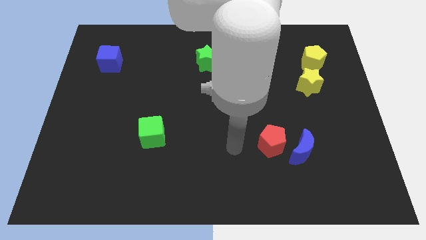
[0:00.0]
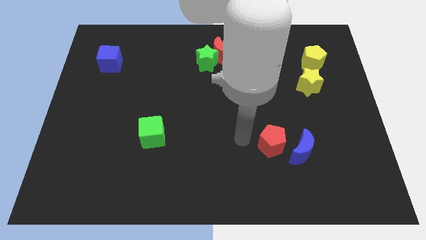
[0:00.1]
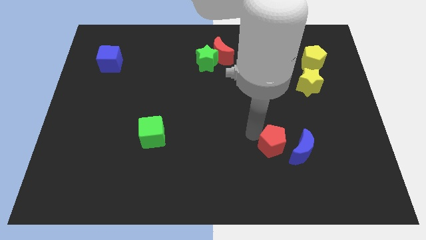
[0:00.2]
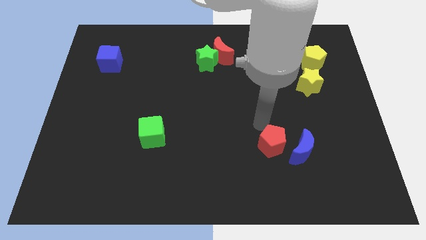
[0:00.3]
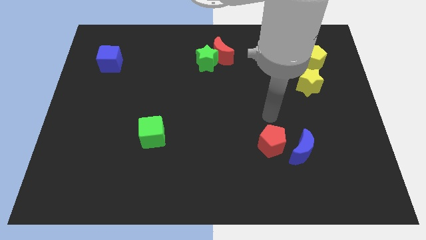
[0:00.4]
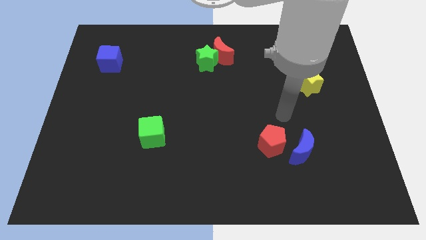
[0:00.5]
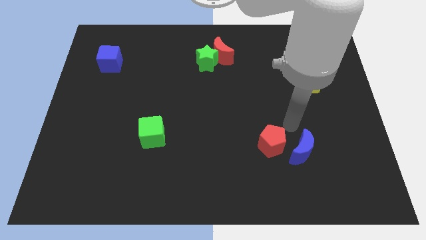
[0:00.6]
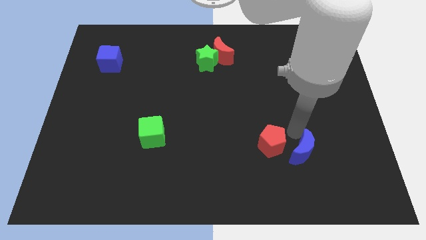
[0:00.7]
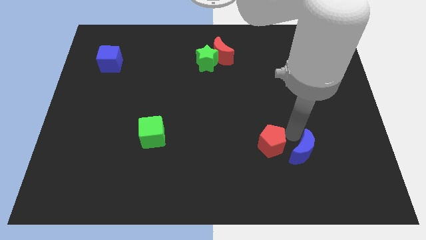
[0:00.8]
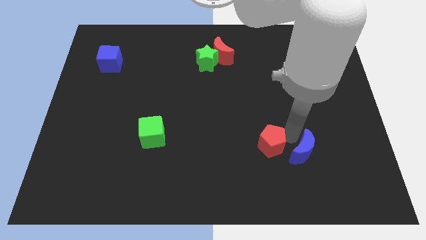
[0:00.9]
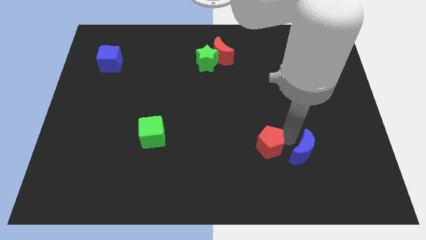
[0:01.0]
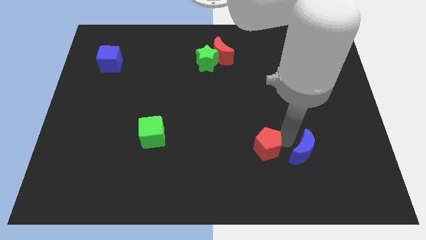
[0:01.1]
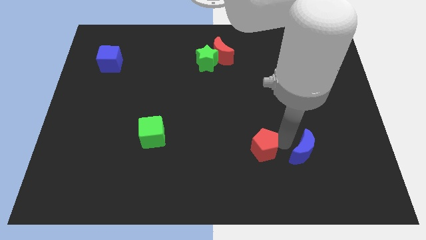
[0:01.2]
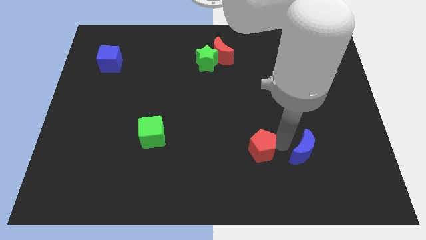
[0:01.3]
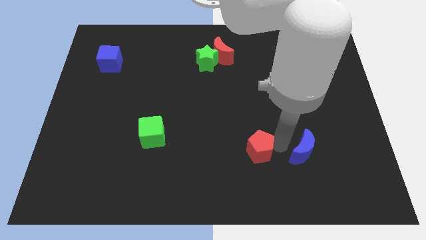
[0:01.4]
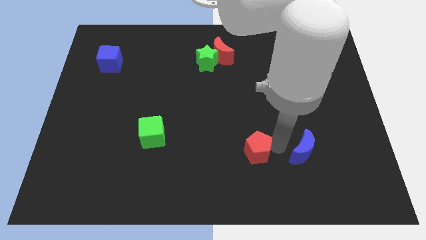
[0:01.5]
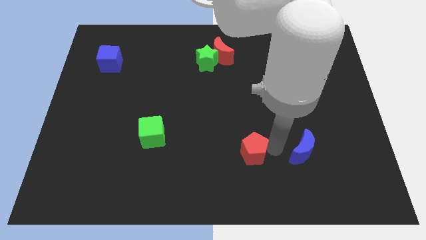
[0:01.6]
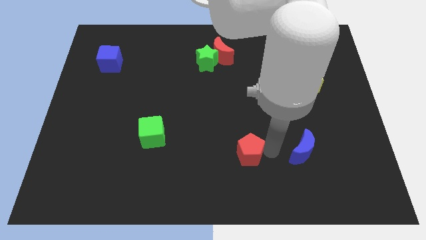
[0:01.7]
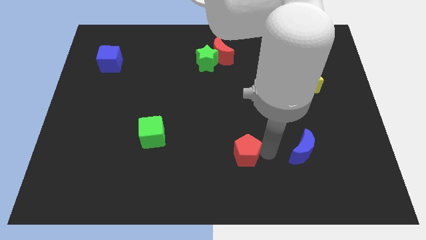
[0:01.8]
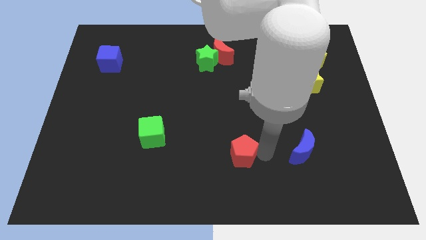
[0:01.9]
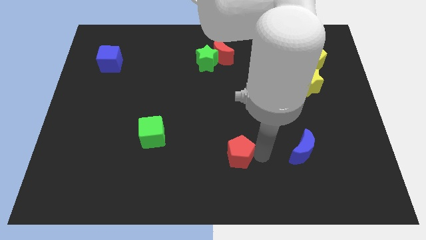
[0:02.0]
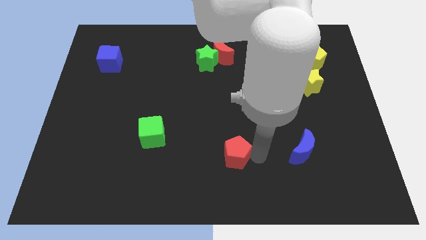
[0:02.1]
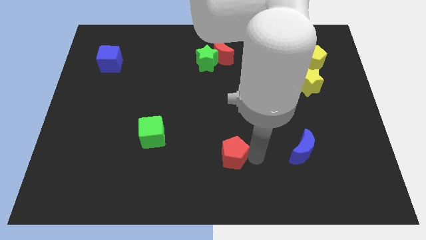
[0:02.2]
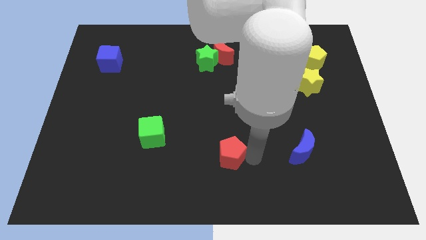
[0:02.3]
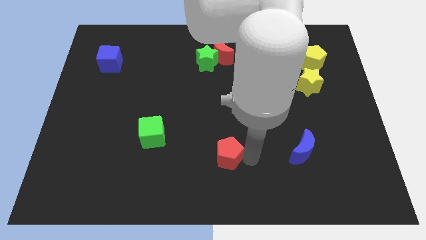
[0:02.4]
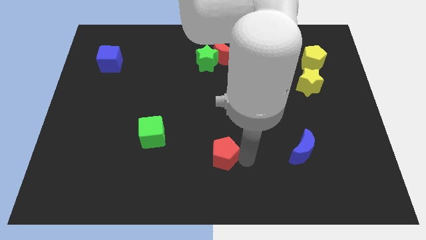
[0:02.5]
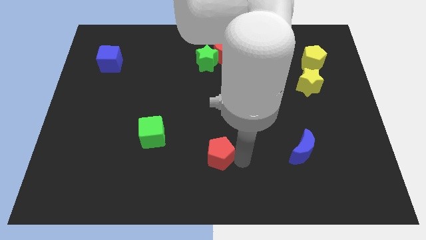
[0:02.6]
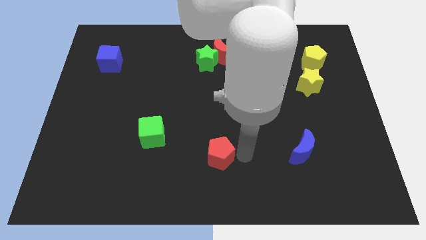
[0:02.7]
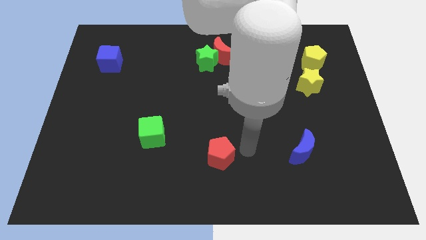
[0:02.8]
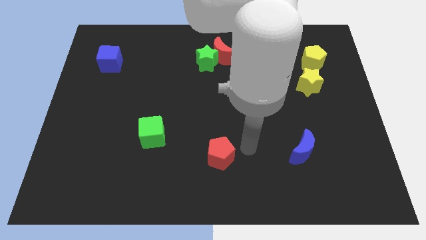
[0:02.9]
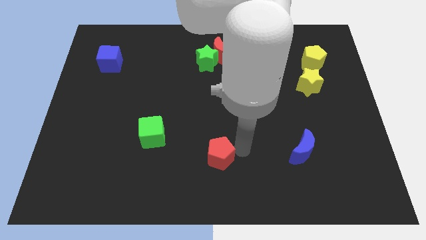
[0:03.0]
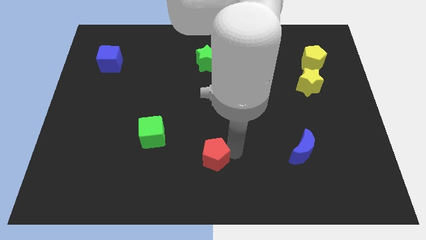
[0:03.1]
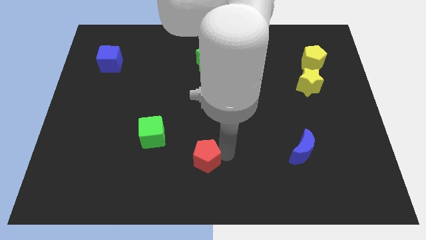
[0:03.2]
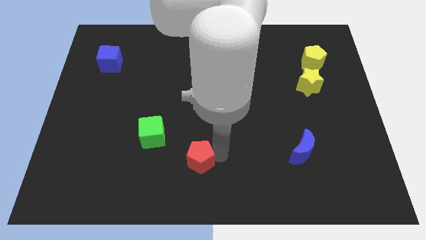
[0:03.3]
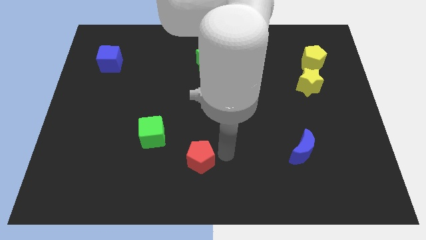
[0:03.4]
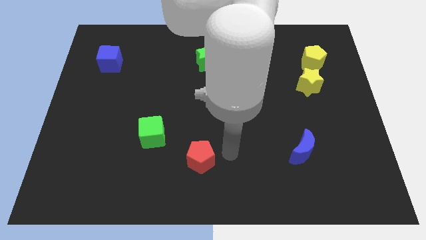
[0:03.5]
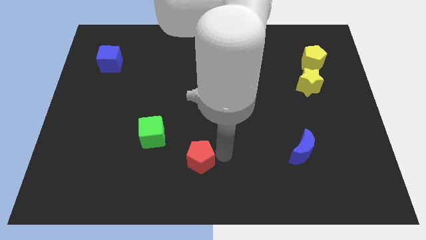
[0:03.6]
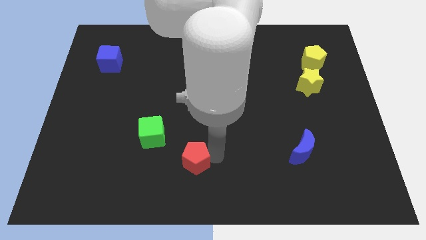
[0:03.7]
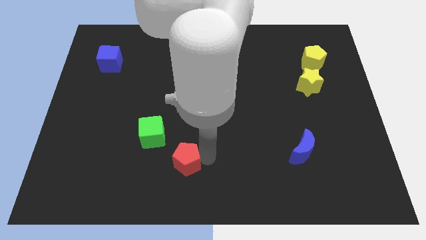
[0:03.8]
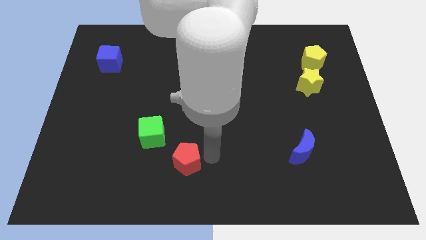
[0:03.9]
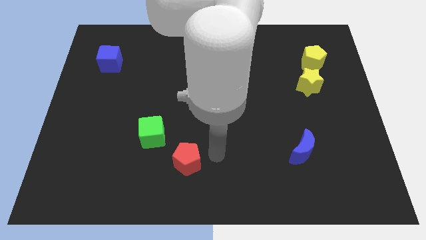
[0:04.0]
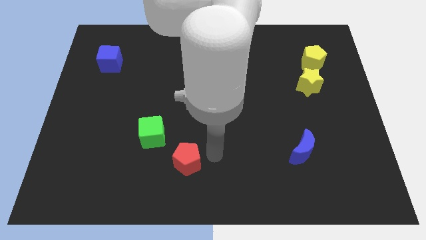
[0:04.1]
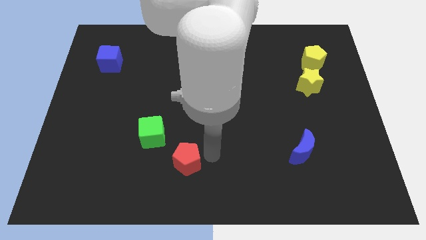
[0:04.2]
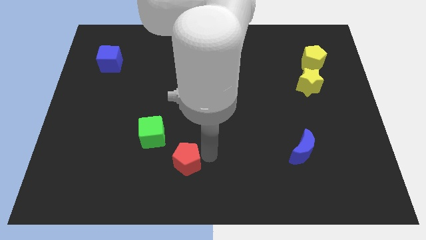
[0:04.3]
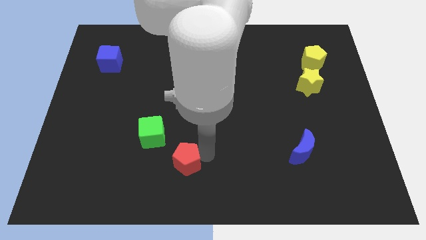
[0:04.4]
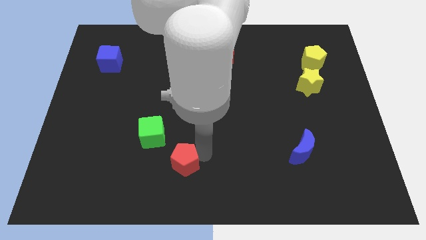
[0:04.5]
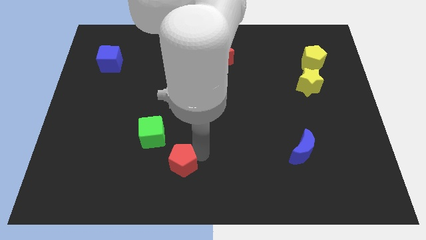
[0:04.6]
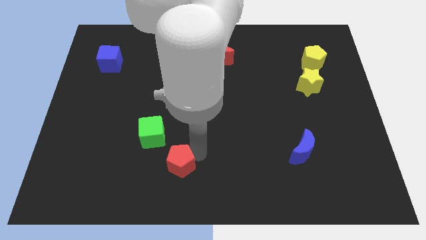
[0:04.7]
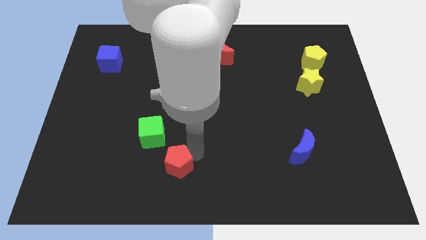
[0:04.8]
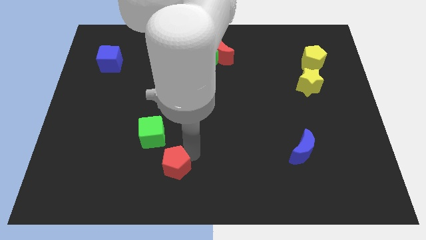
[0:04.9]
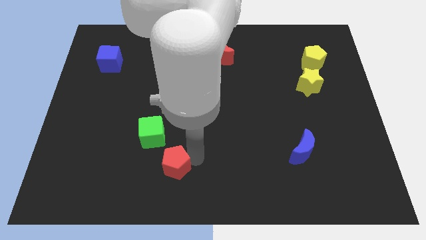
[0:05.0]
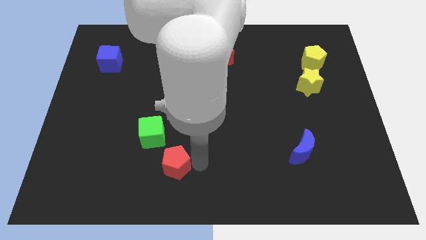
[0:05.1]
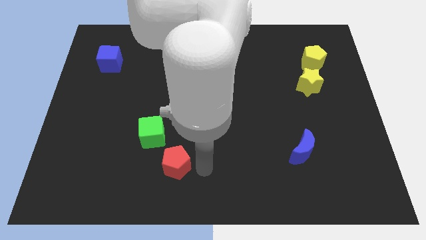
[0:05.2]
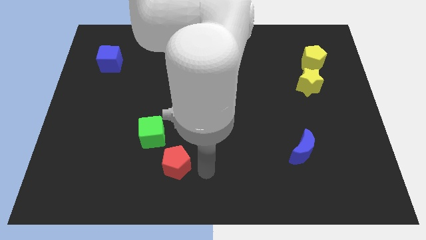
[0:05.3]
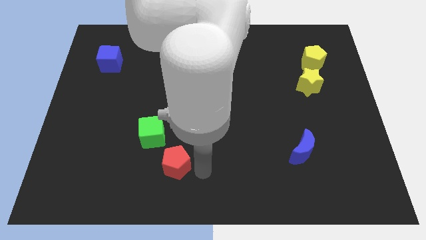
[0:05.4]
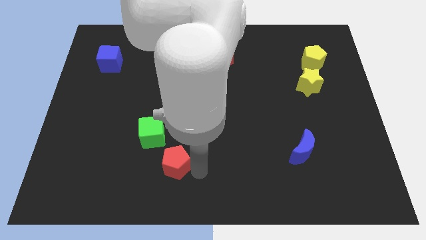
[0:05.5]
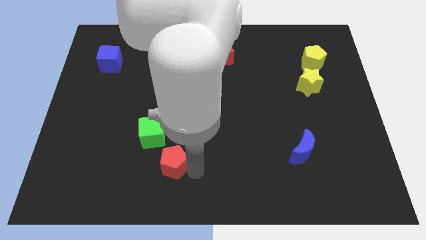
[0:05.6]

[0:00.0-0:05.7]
move the red pentagon left

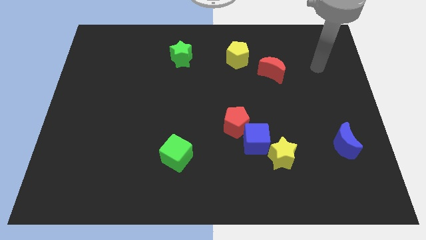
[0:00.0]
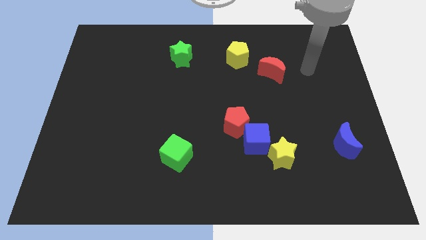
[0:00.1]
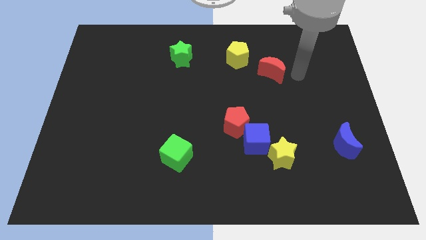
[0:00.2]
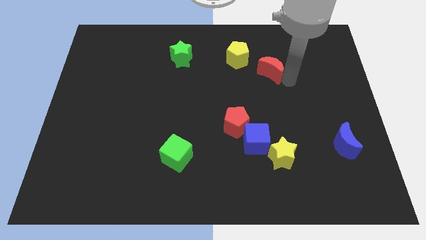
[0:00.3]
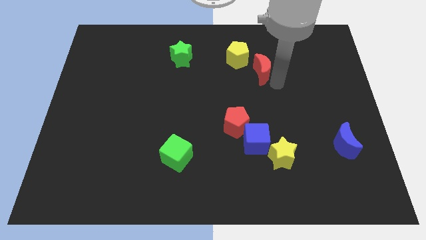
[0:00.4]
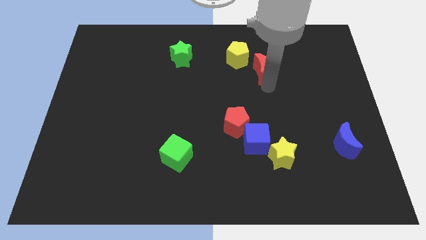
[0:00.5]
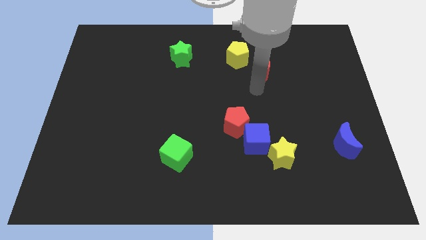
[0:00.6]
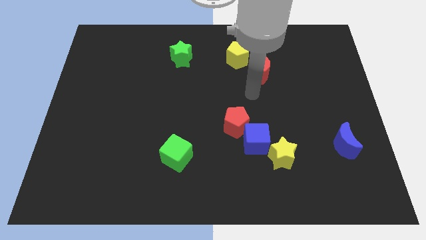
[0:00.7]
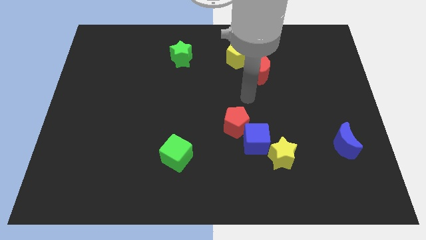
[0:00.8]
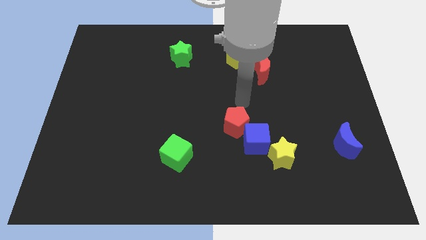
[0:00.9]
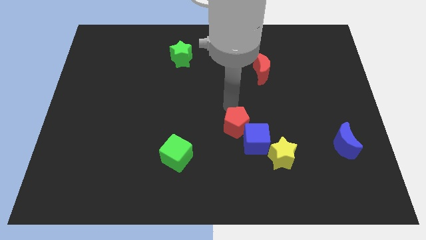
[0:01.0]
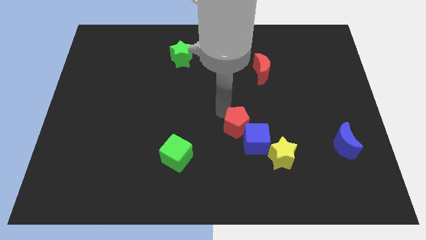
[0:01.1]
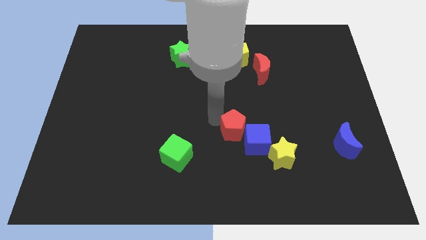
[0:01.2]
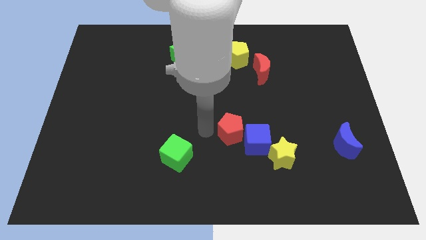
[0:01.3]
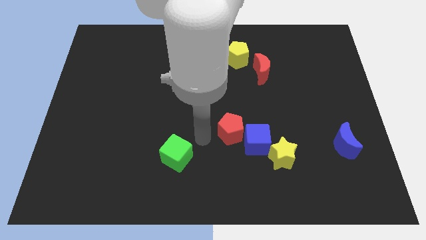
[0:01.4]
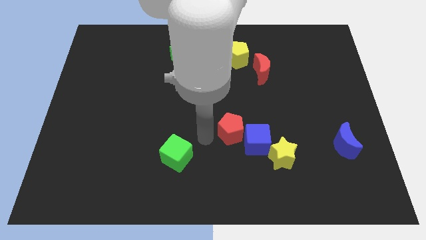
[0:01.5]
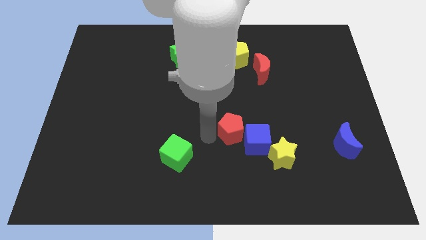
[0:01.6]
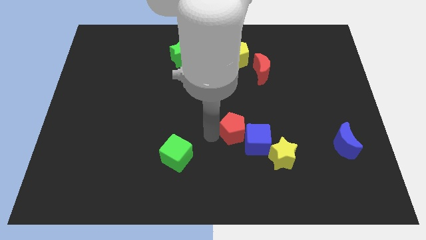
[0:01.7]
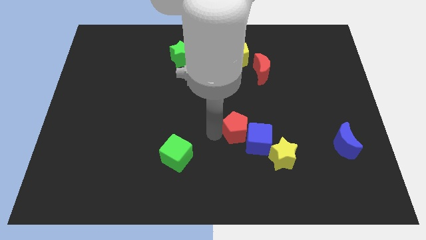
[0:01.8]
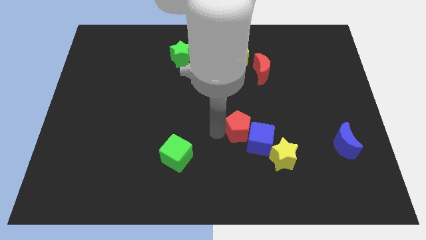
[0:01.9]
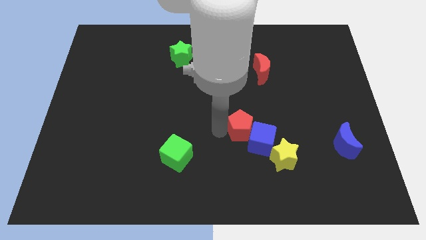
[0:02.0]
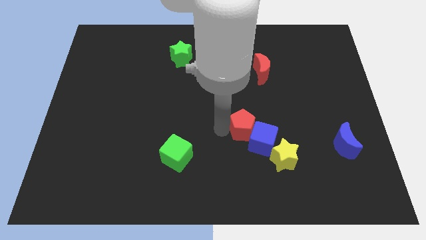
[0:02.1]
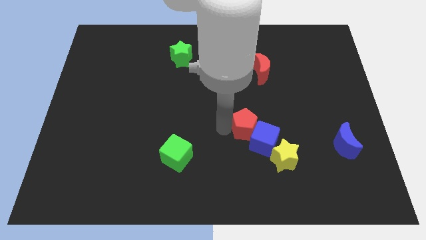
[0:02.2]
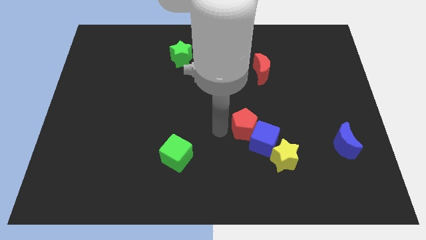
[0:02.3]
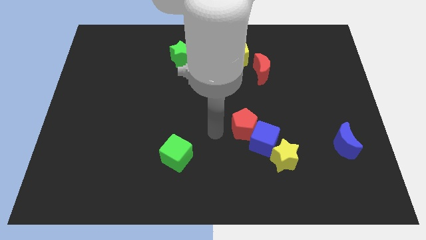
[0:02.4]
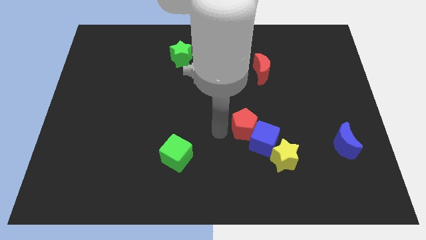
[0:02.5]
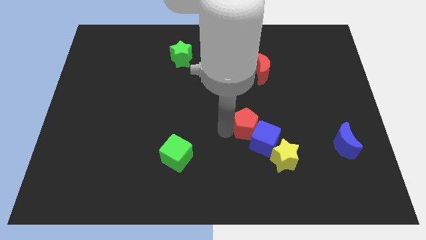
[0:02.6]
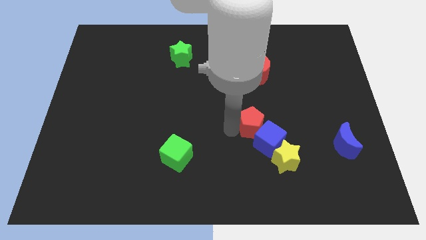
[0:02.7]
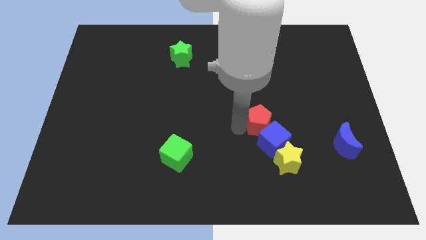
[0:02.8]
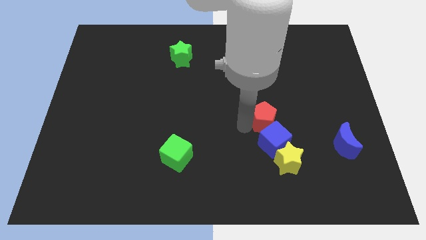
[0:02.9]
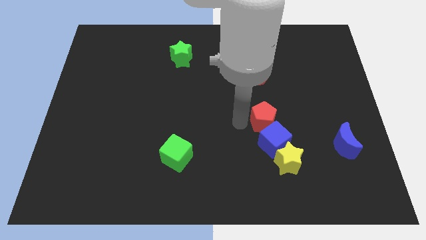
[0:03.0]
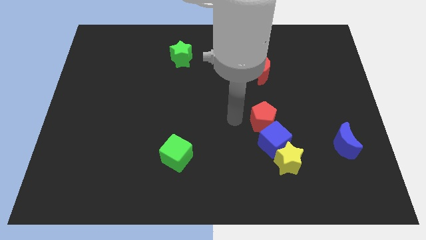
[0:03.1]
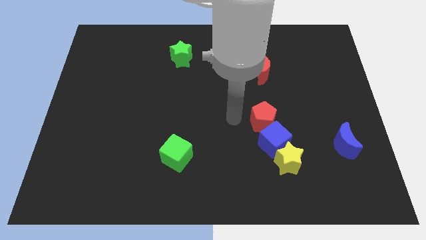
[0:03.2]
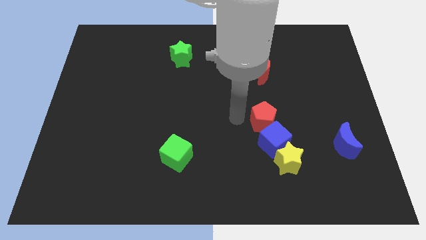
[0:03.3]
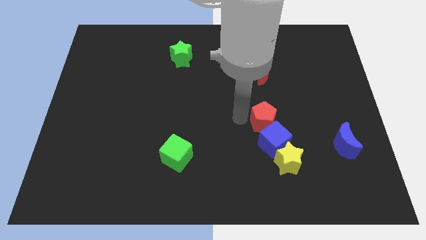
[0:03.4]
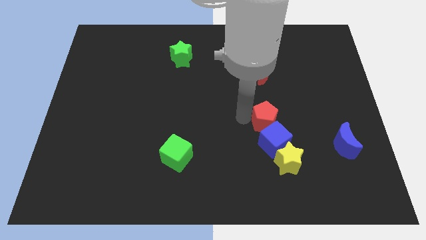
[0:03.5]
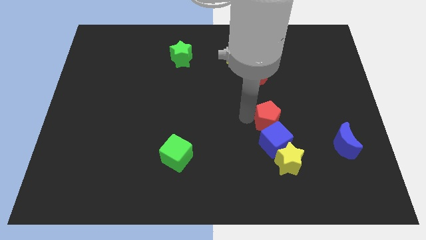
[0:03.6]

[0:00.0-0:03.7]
slide the red pentagon right somewhat
